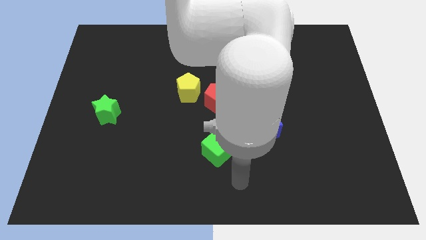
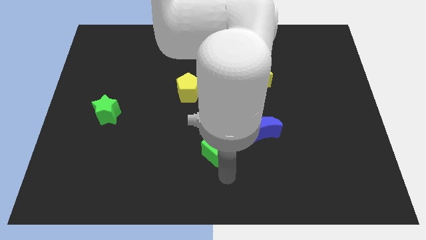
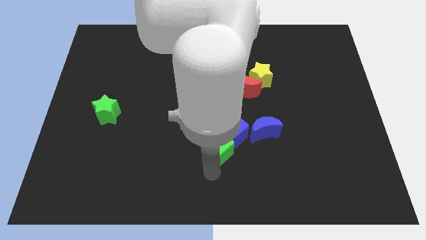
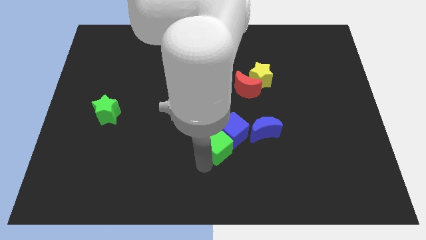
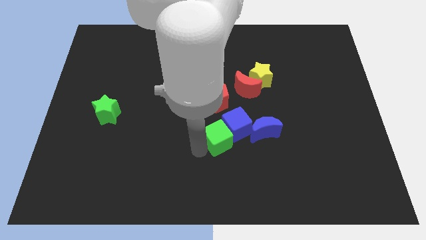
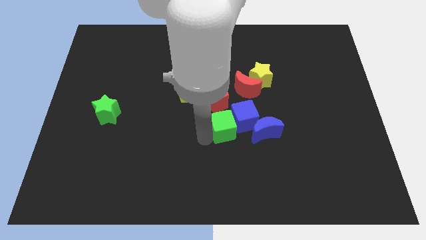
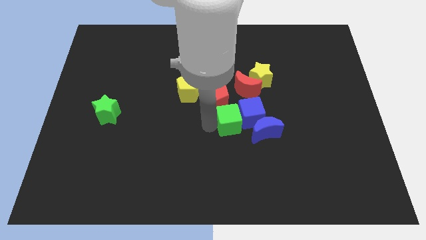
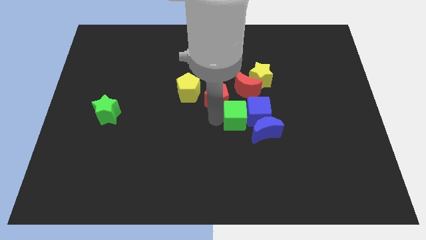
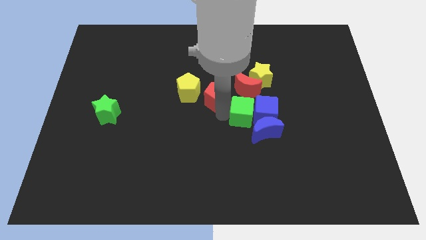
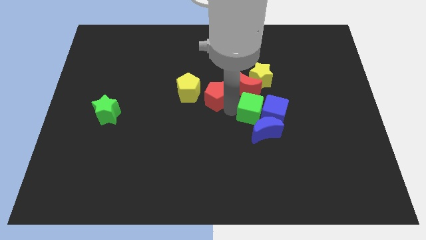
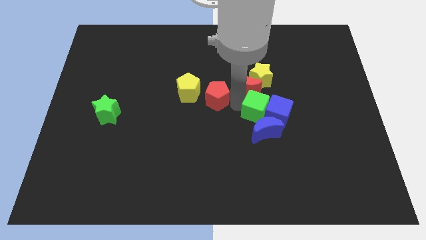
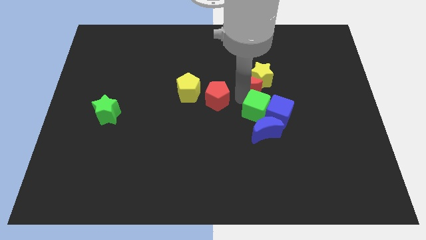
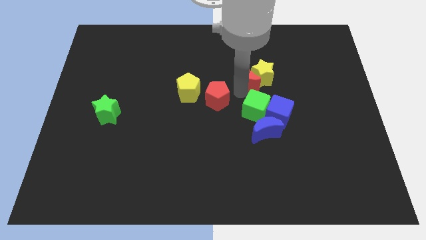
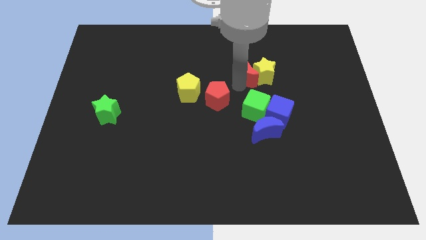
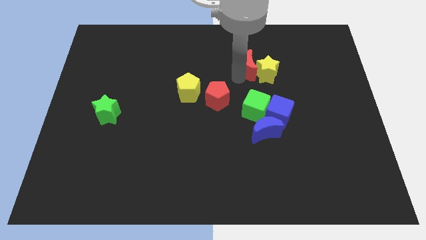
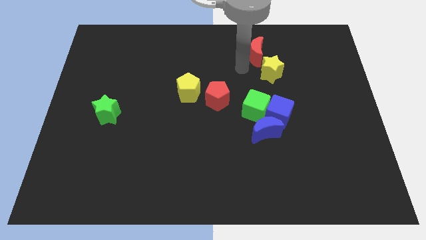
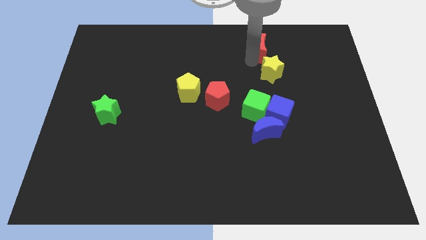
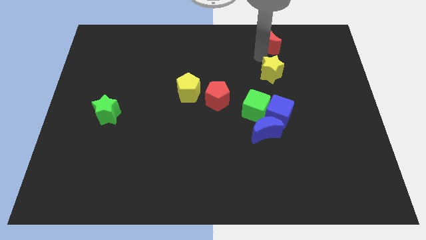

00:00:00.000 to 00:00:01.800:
pull the yellow star apart from the red moon

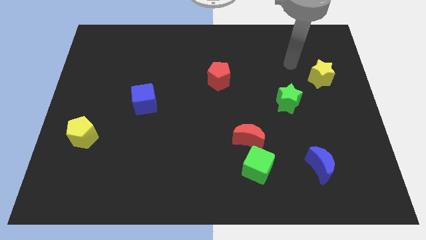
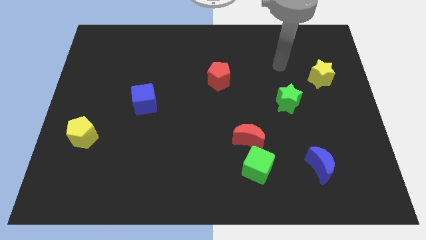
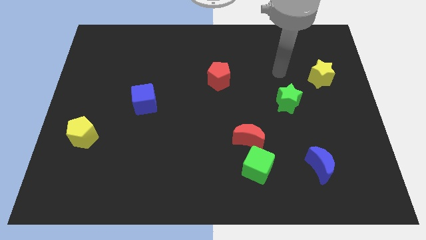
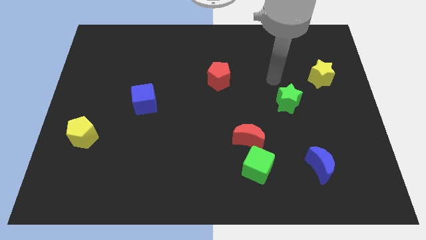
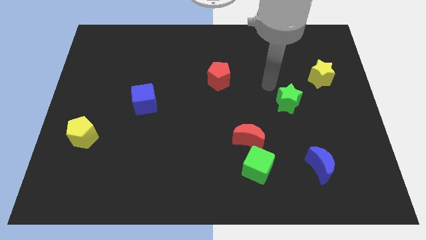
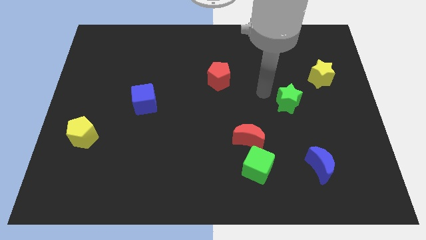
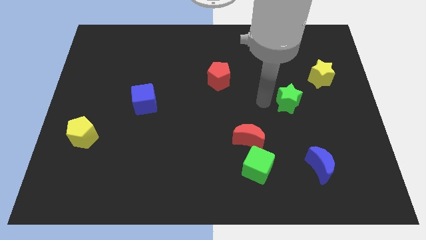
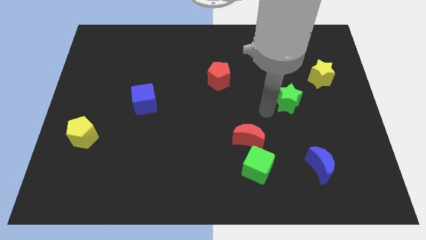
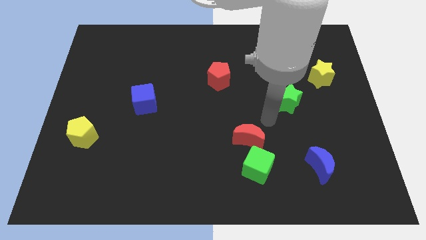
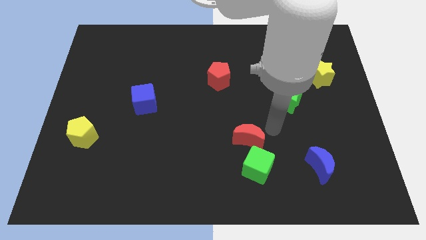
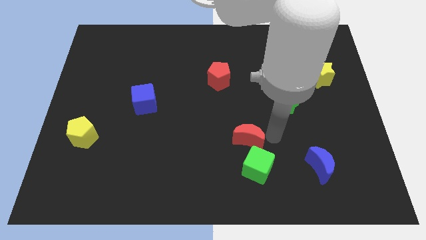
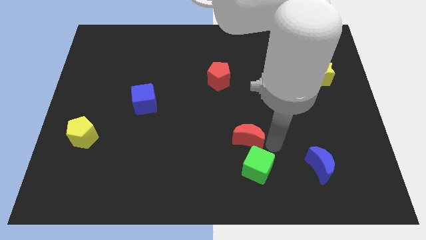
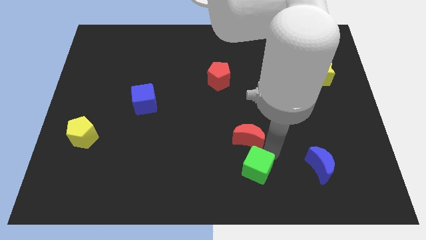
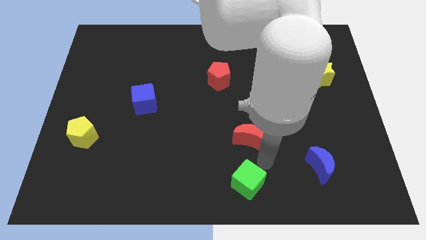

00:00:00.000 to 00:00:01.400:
pull the red moon apart from the green cube

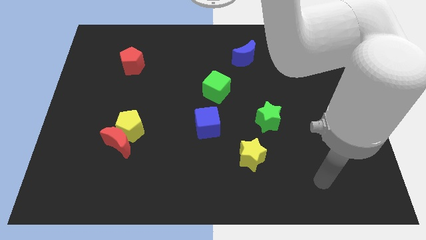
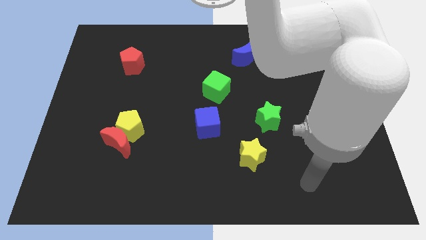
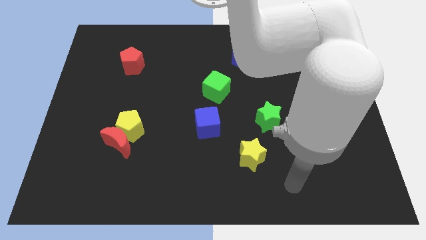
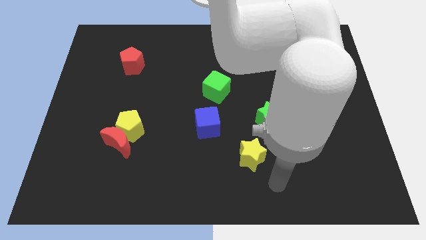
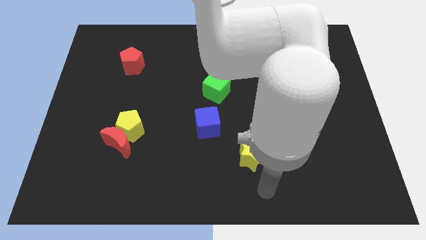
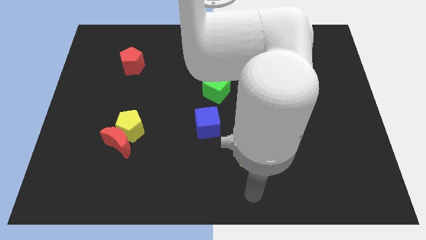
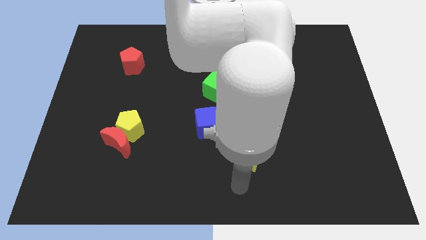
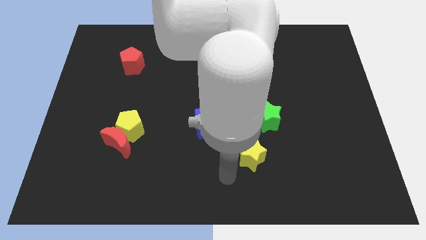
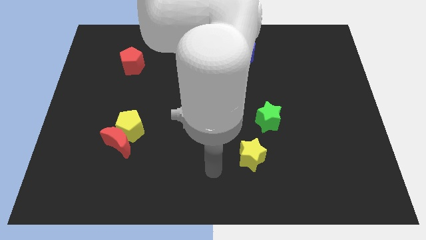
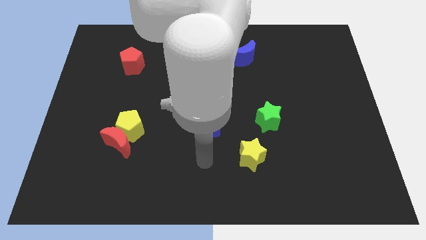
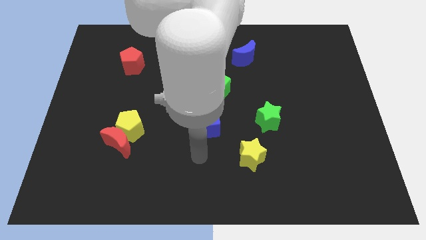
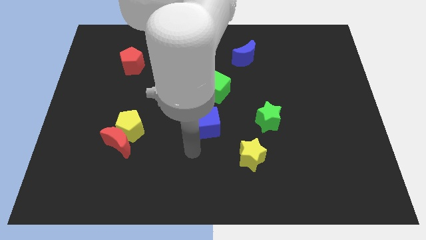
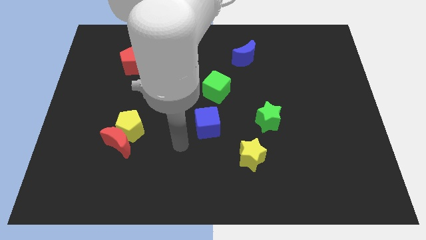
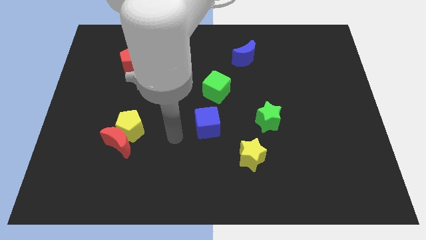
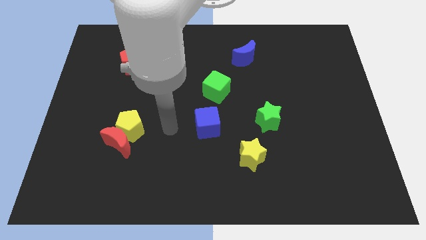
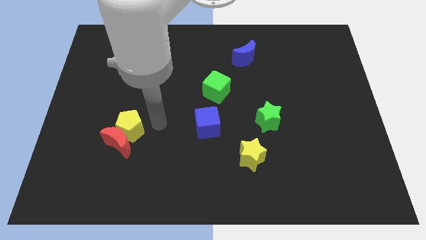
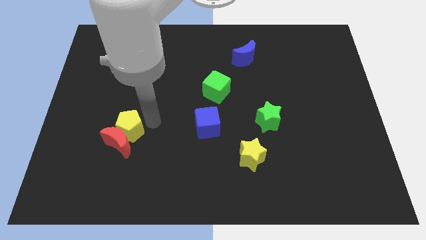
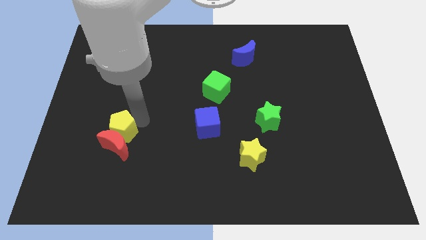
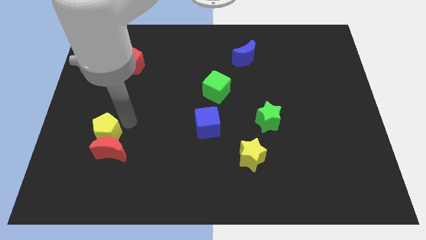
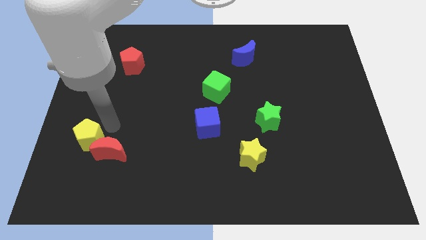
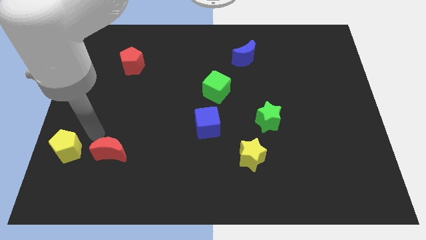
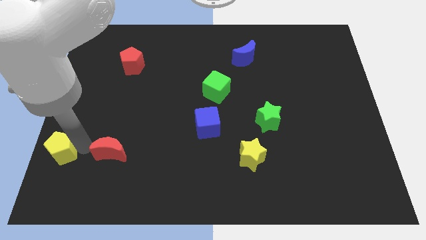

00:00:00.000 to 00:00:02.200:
pull the red moon apart from the yellow pentagon

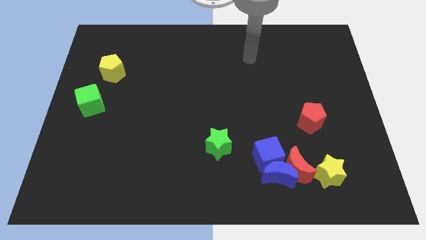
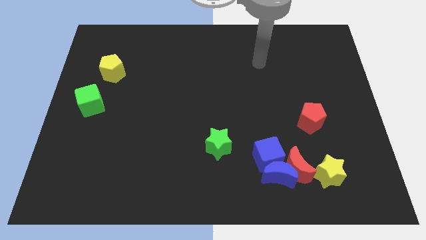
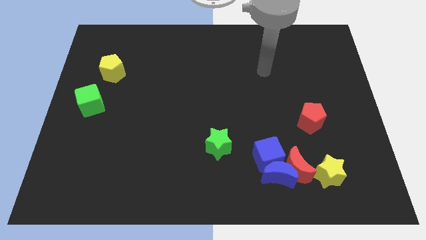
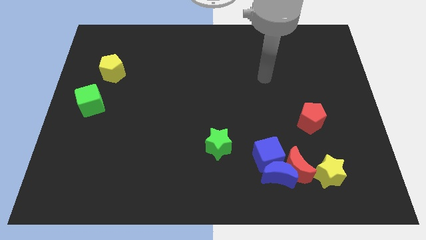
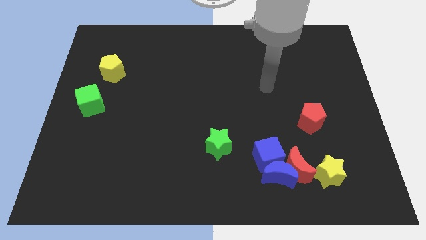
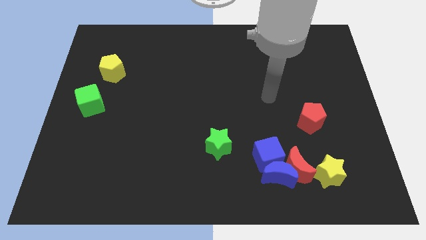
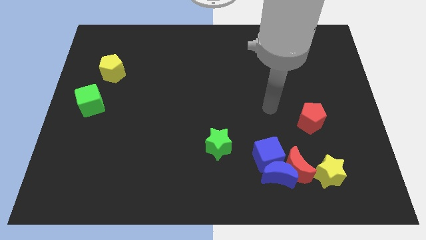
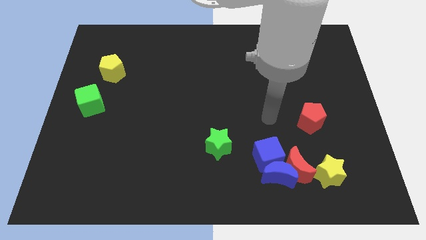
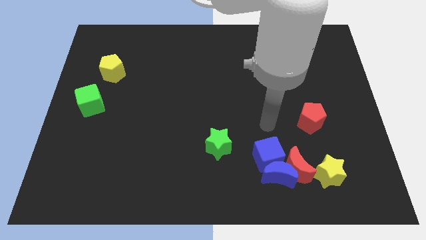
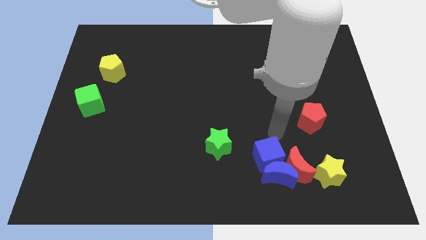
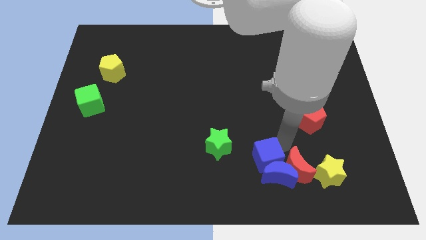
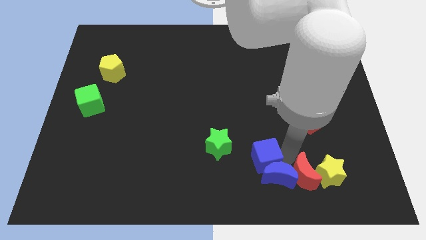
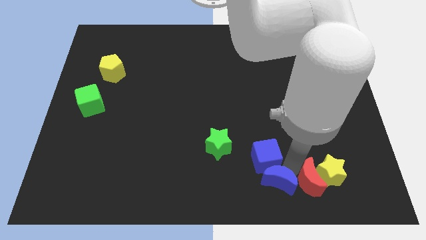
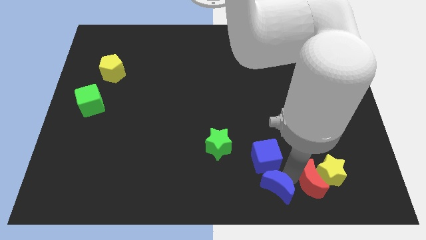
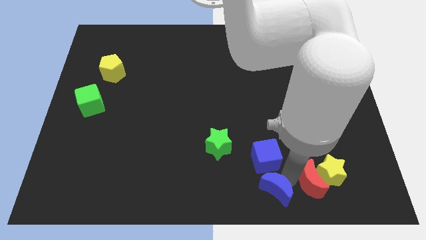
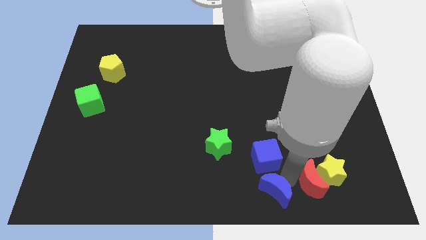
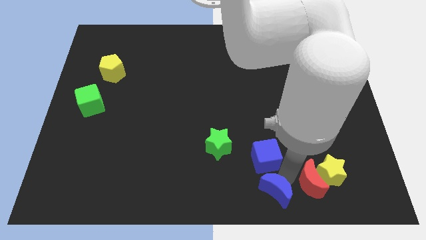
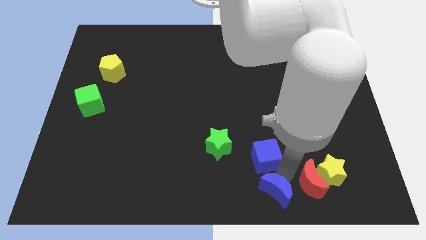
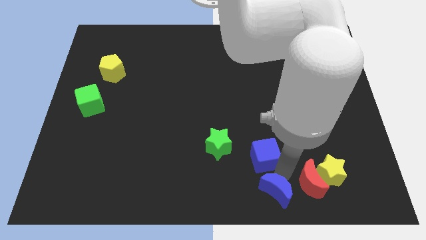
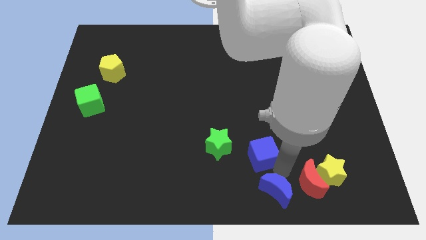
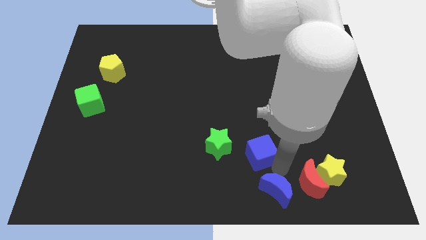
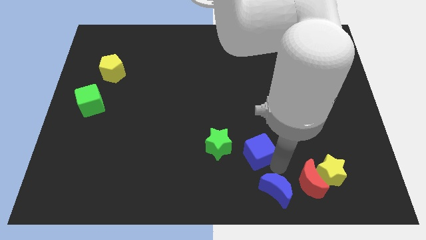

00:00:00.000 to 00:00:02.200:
pull the blue cube apart from the blue moon and red moon

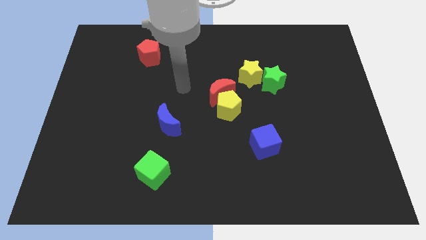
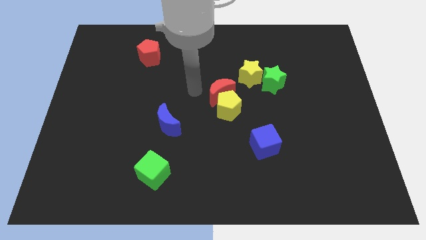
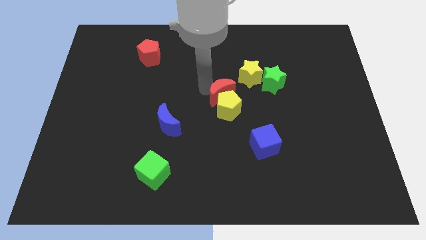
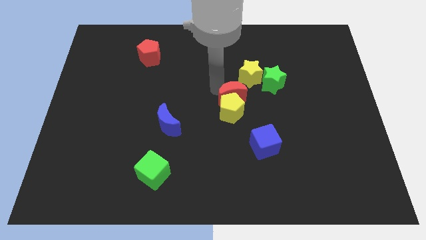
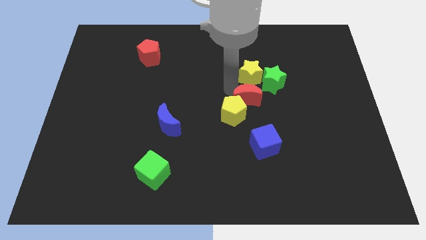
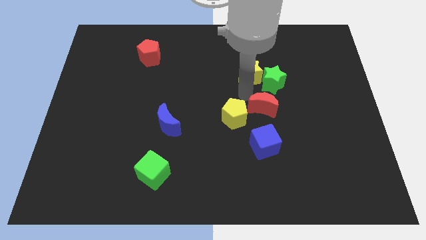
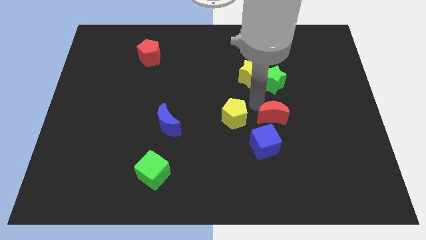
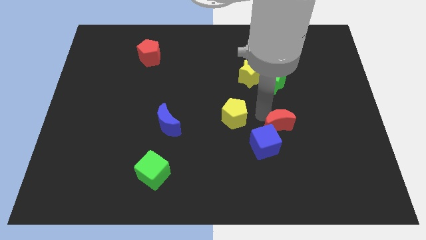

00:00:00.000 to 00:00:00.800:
separate the yellow pentagon from the red moon

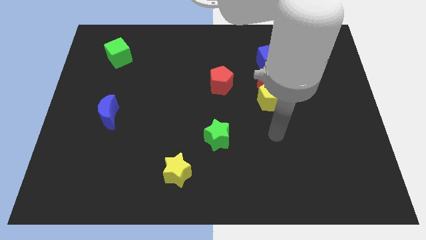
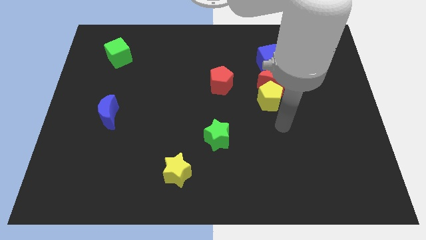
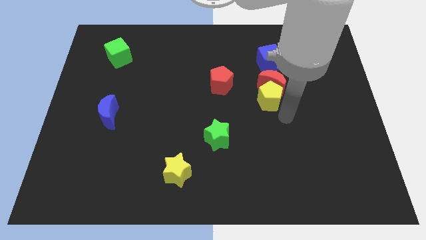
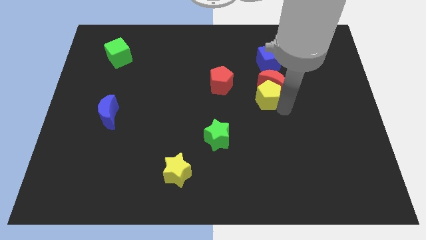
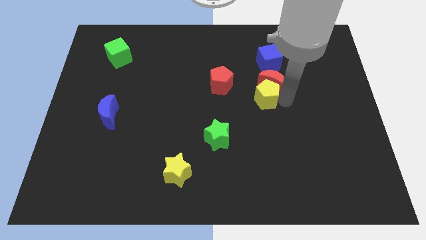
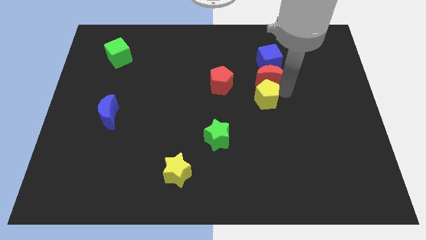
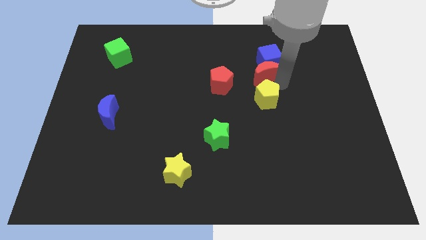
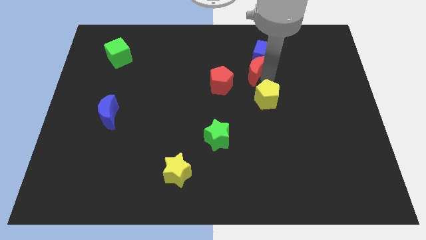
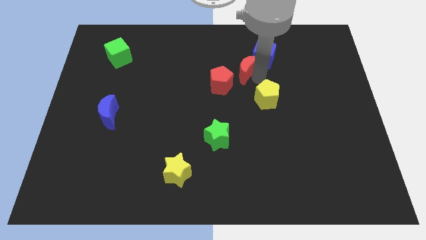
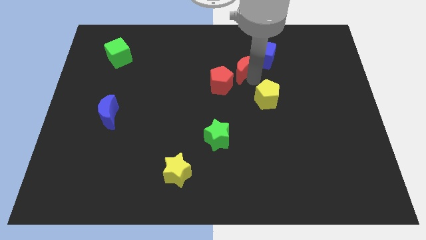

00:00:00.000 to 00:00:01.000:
pull the yellow pentagon apart from the red moon
